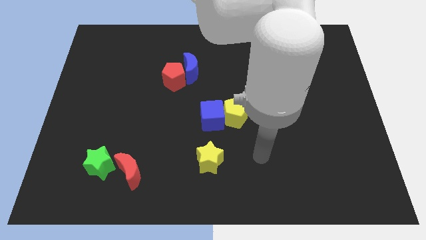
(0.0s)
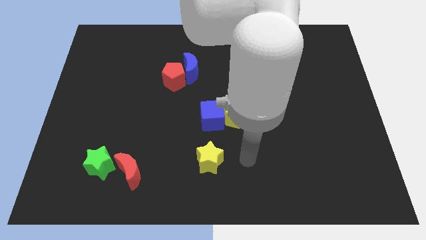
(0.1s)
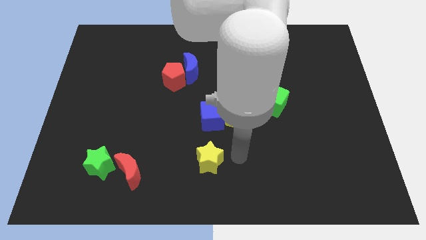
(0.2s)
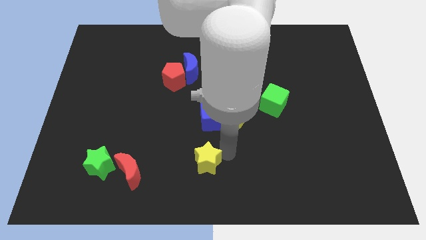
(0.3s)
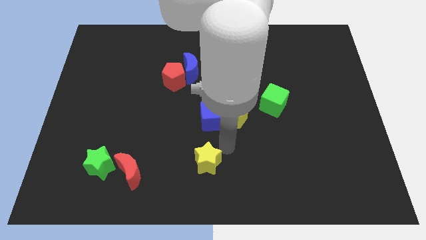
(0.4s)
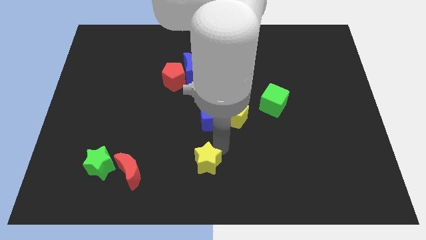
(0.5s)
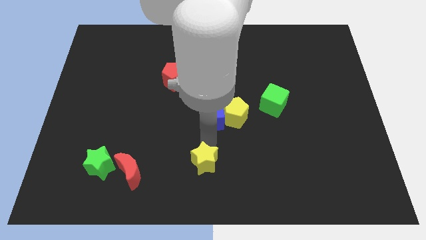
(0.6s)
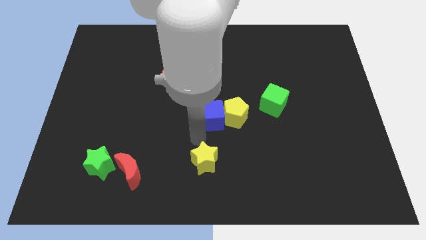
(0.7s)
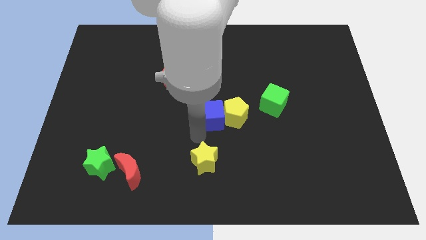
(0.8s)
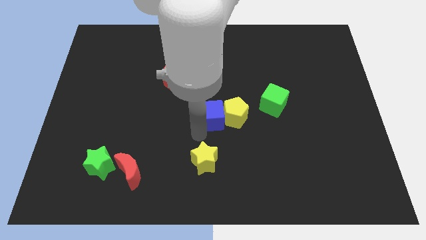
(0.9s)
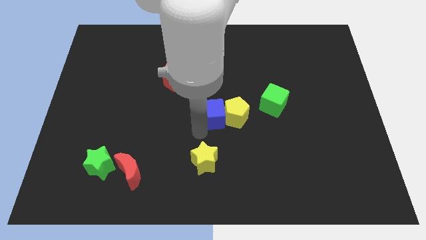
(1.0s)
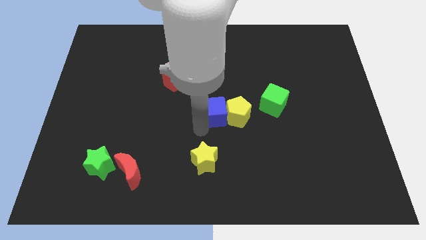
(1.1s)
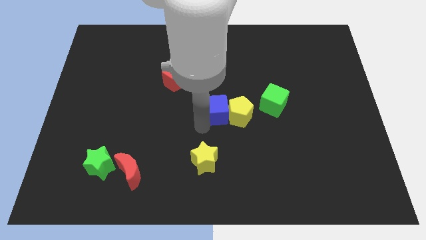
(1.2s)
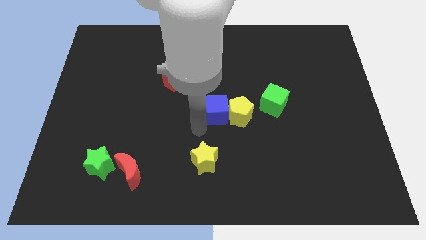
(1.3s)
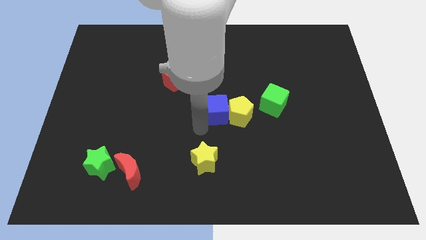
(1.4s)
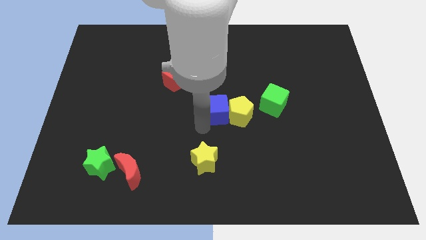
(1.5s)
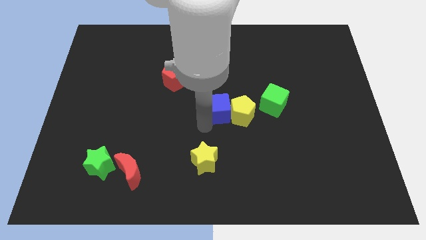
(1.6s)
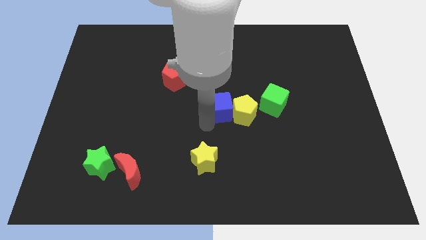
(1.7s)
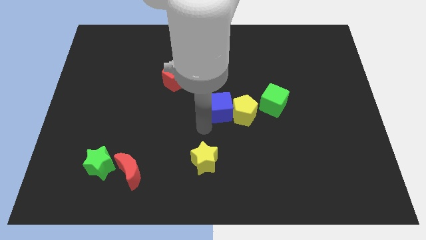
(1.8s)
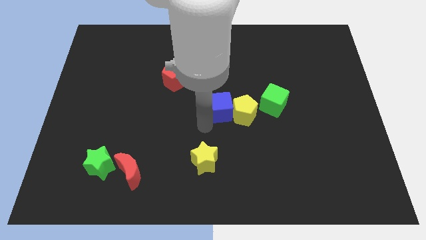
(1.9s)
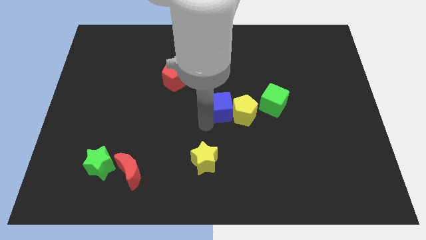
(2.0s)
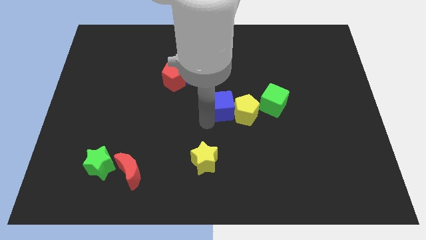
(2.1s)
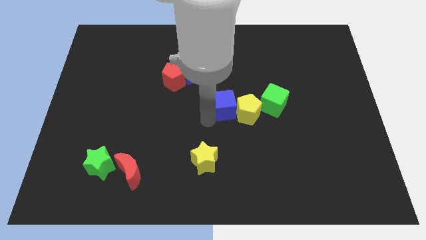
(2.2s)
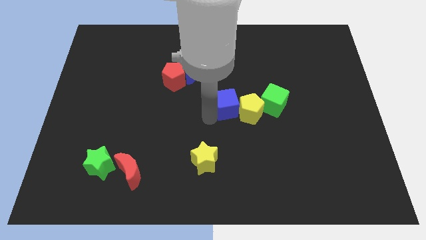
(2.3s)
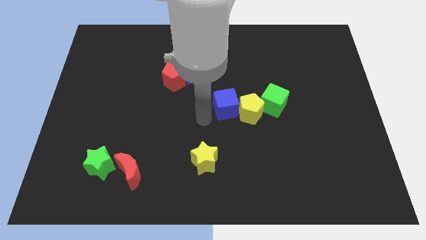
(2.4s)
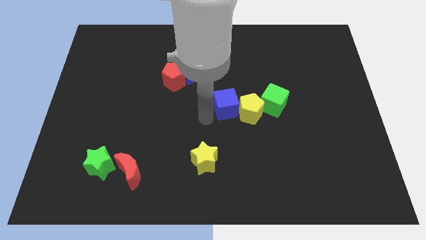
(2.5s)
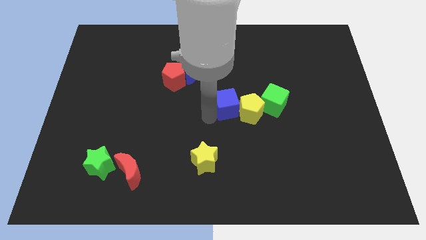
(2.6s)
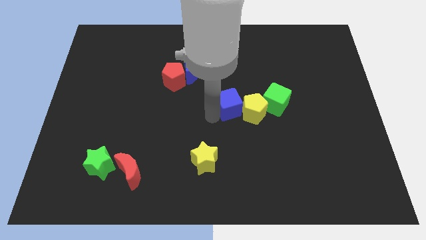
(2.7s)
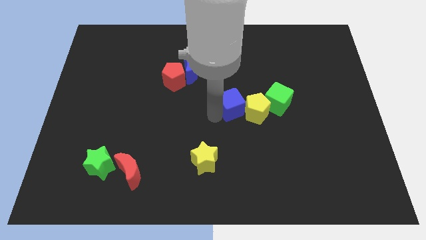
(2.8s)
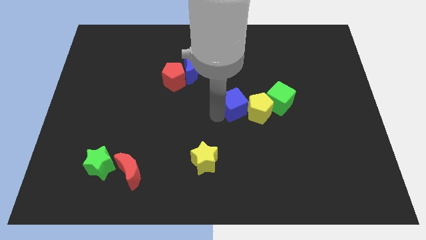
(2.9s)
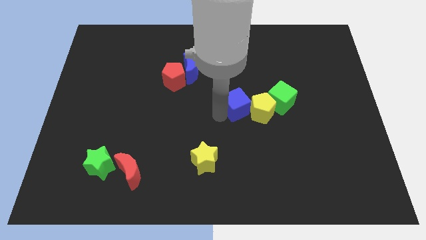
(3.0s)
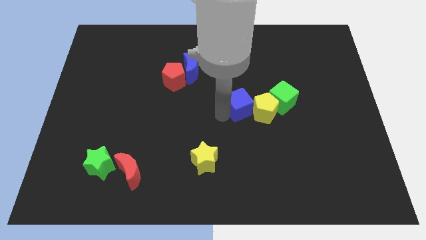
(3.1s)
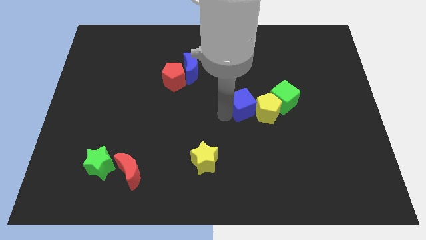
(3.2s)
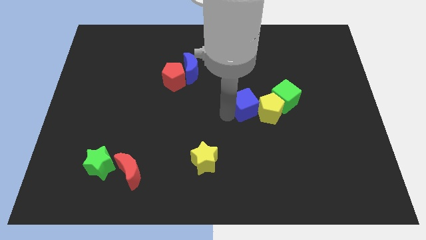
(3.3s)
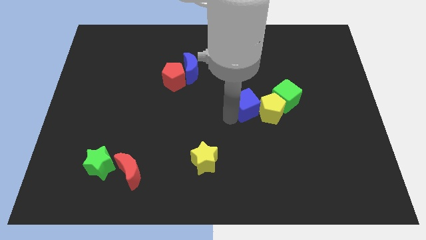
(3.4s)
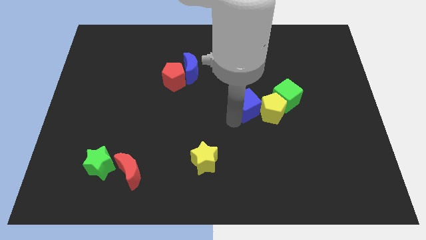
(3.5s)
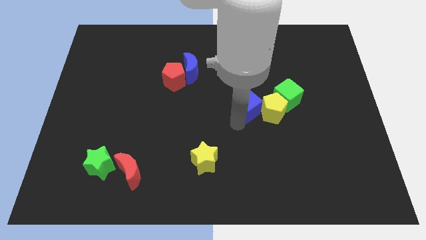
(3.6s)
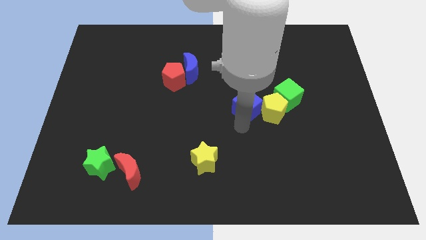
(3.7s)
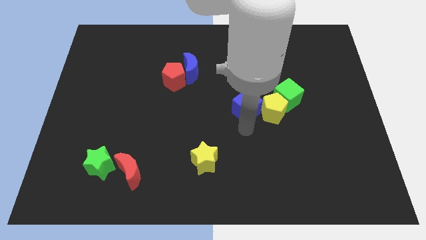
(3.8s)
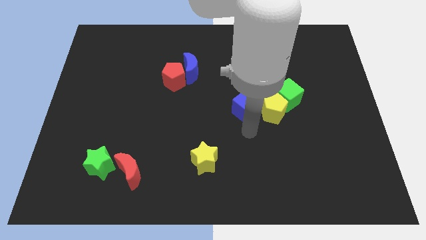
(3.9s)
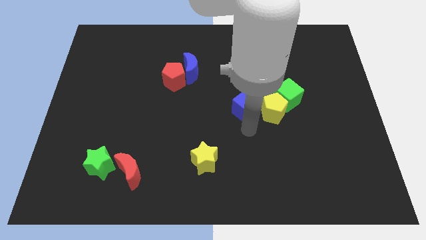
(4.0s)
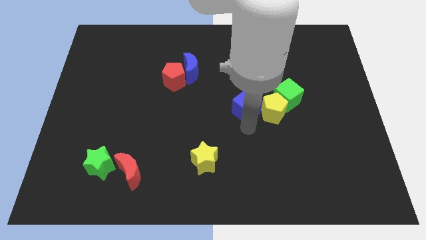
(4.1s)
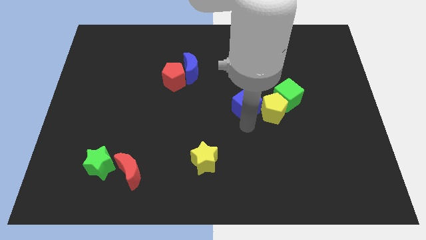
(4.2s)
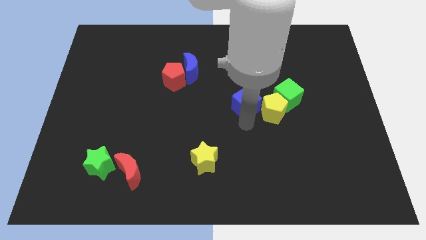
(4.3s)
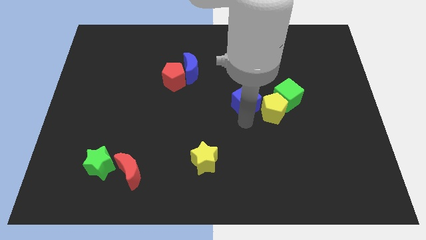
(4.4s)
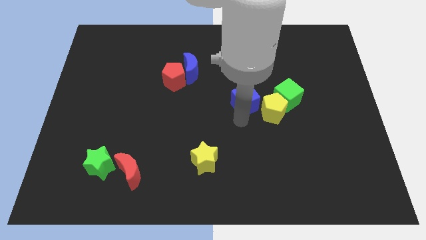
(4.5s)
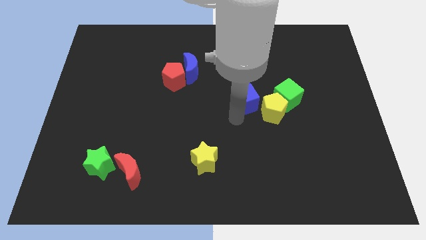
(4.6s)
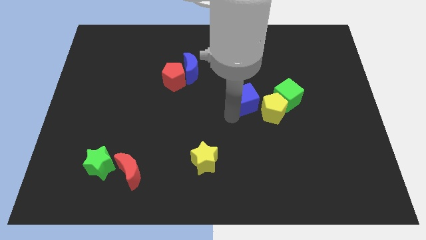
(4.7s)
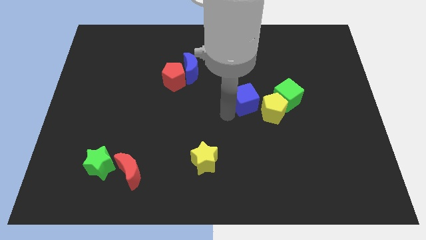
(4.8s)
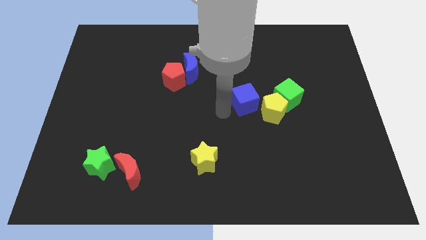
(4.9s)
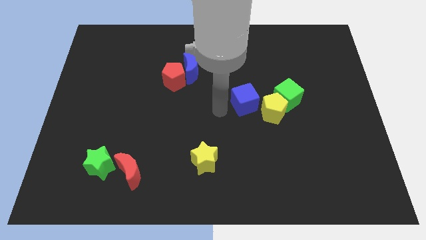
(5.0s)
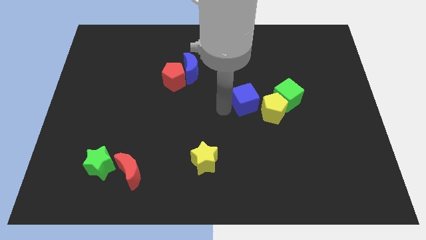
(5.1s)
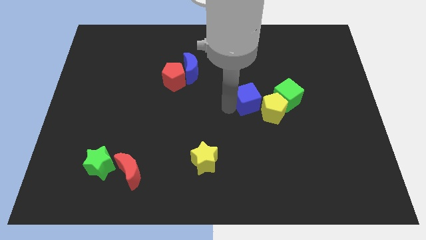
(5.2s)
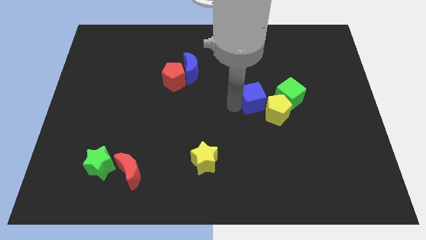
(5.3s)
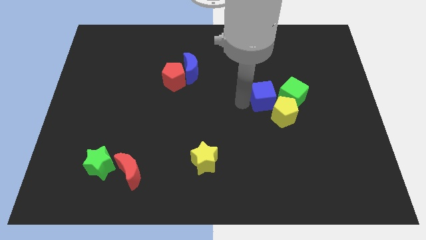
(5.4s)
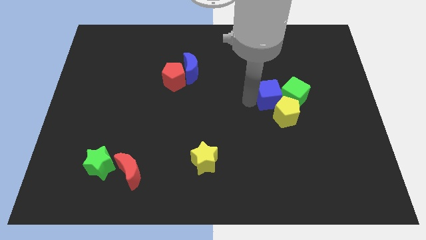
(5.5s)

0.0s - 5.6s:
slide the blue cube next to the green cube

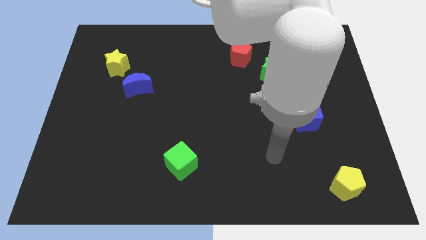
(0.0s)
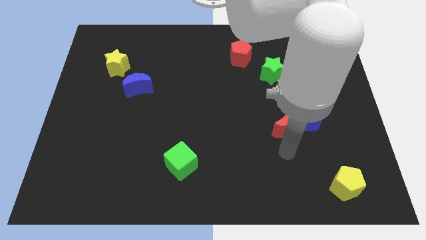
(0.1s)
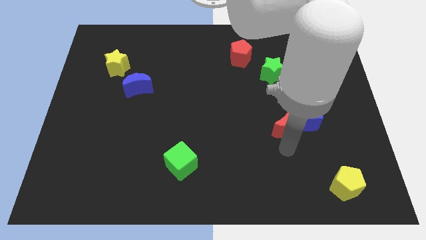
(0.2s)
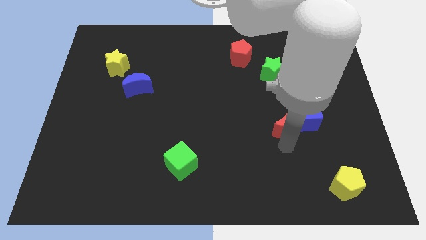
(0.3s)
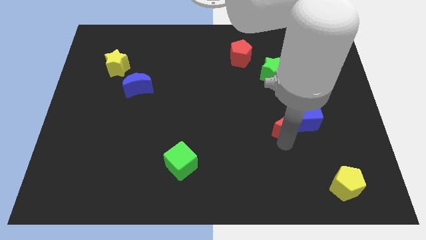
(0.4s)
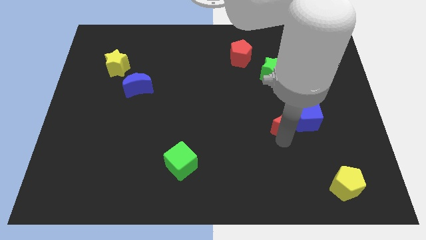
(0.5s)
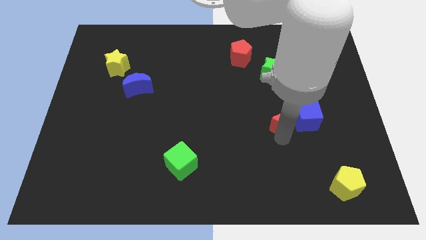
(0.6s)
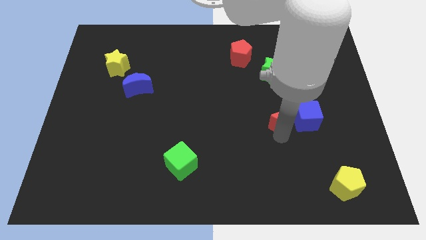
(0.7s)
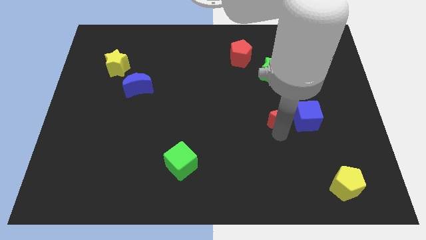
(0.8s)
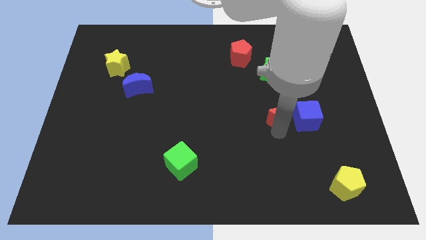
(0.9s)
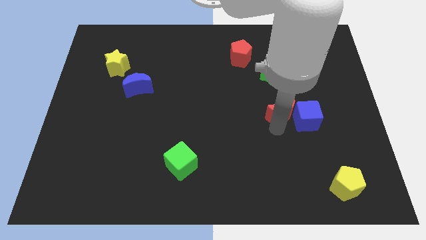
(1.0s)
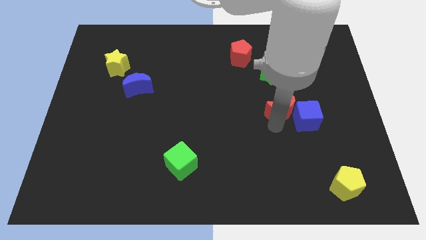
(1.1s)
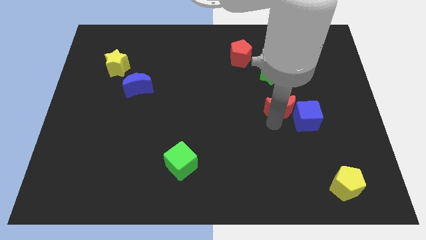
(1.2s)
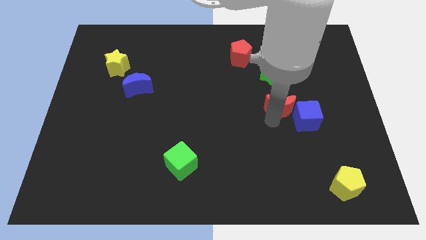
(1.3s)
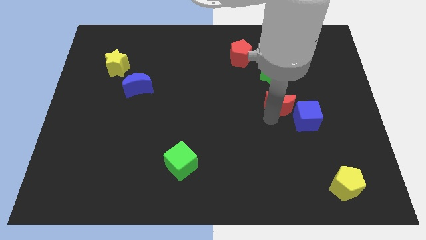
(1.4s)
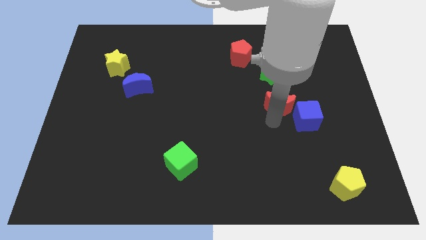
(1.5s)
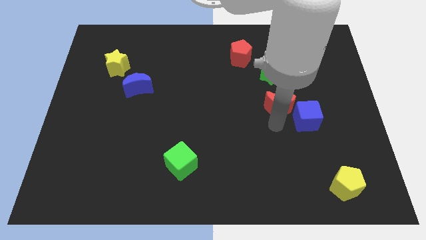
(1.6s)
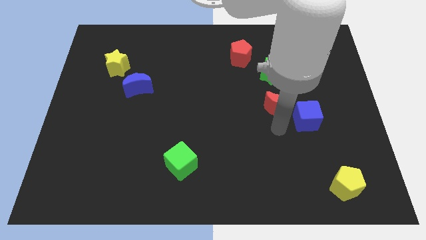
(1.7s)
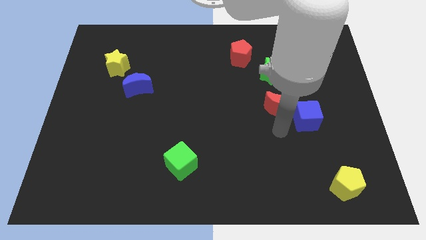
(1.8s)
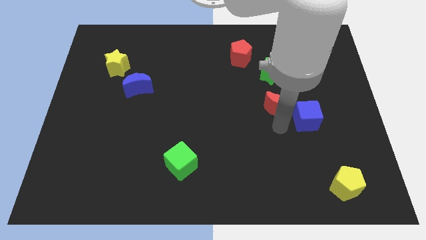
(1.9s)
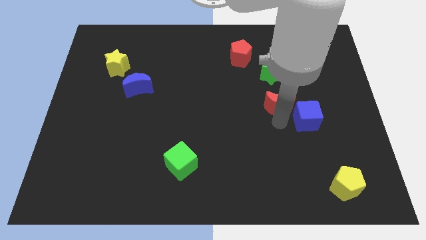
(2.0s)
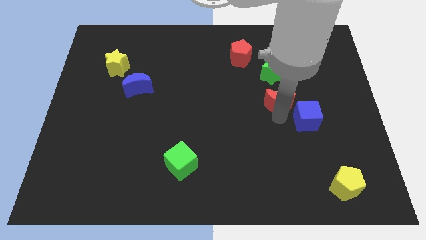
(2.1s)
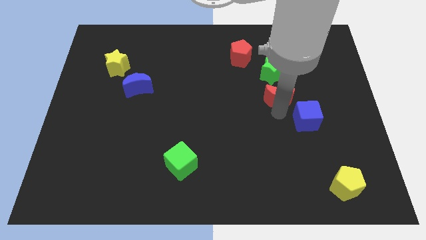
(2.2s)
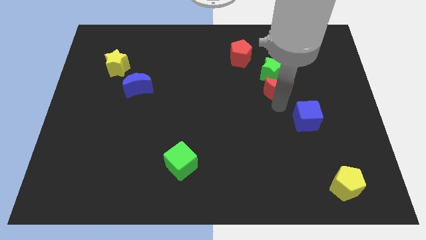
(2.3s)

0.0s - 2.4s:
push the red moon towards the green star
